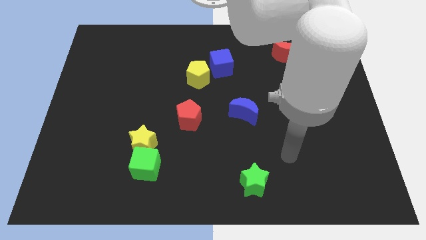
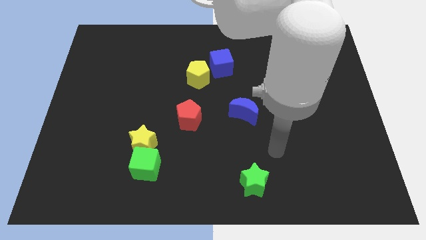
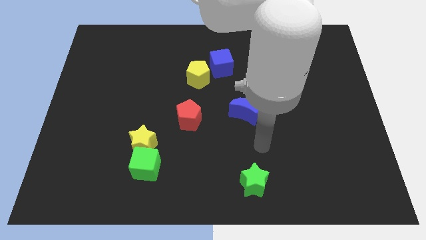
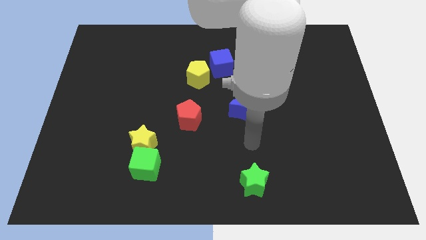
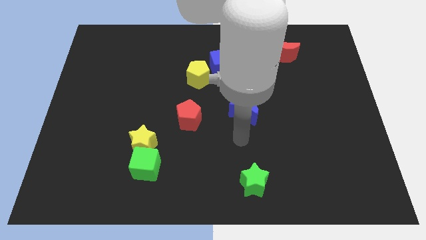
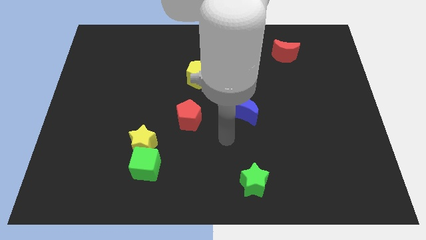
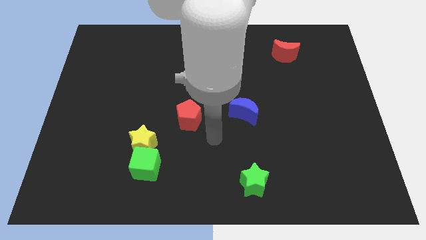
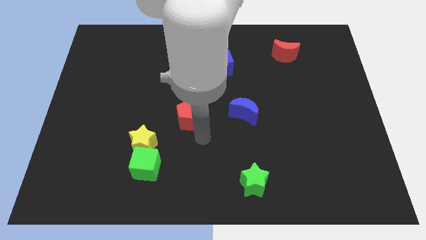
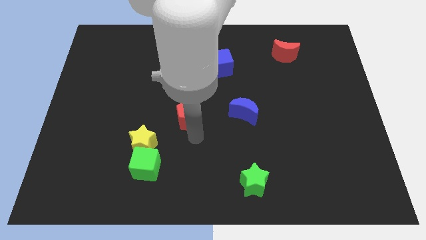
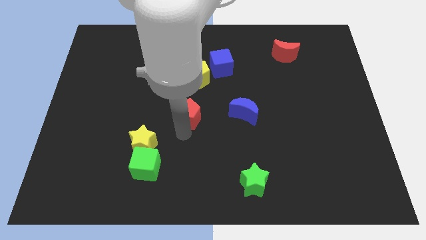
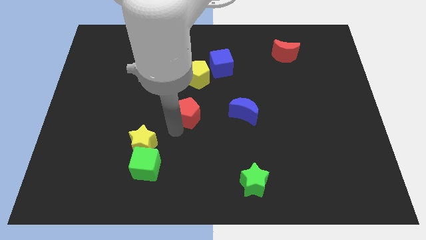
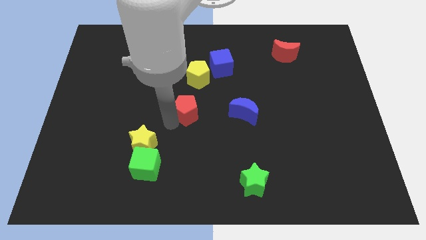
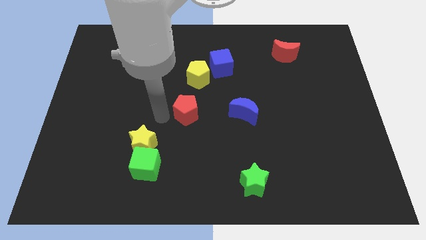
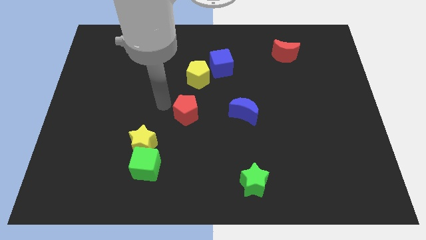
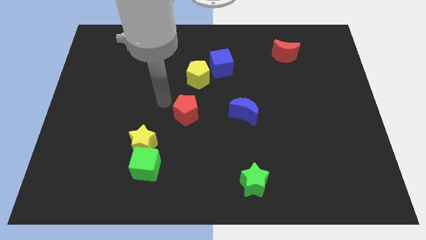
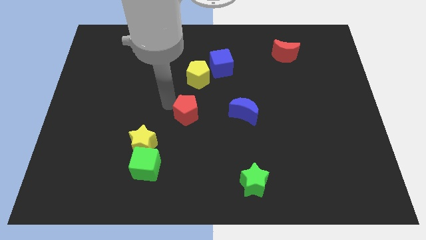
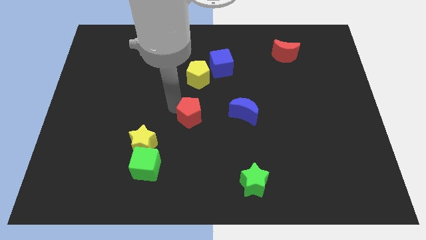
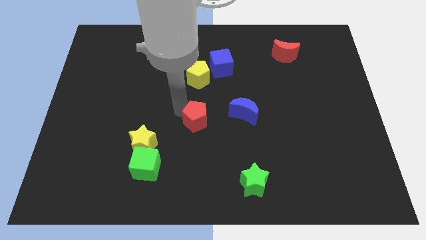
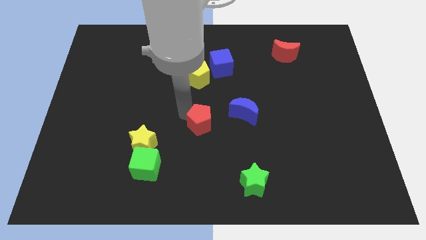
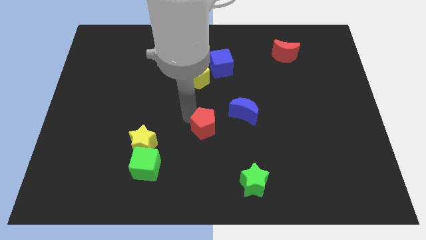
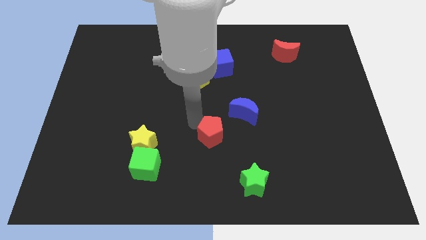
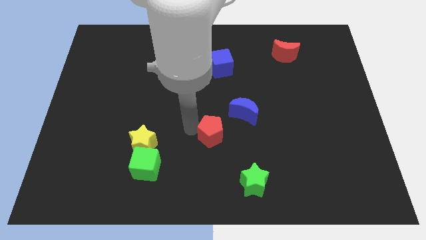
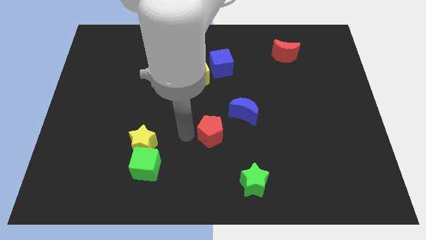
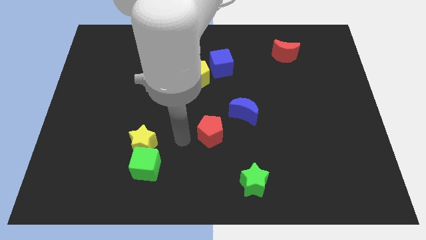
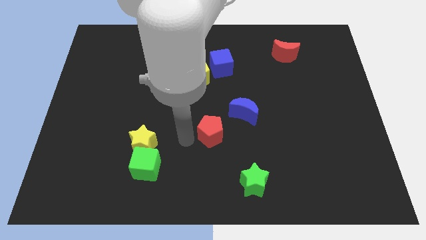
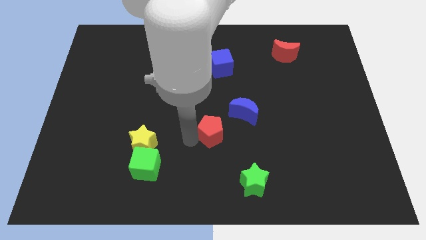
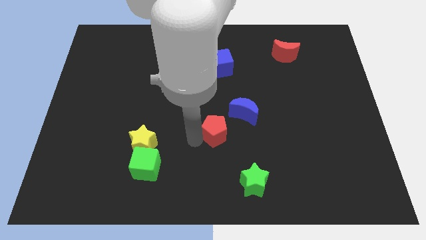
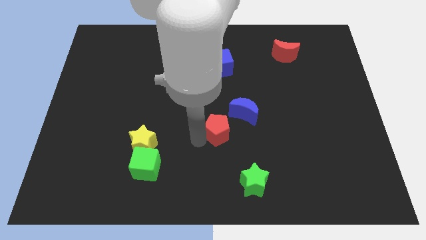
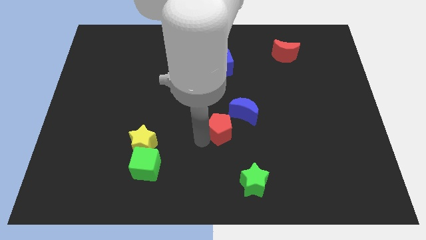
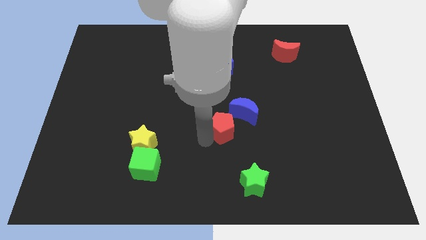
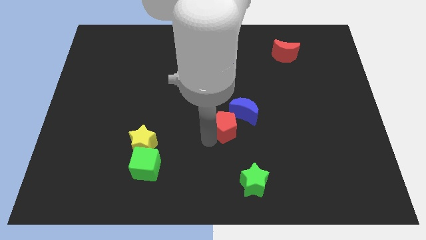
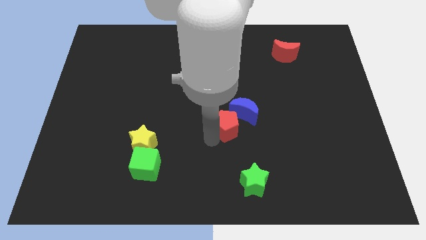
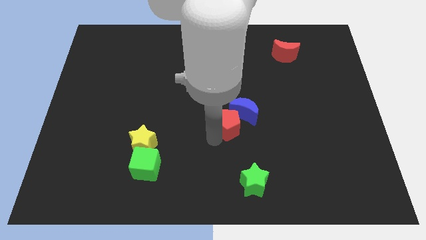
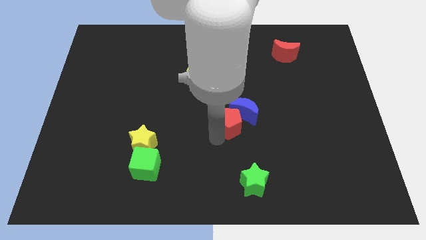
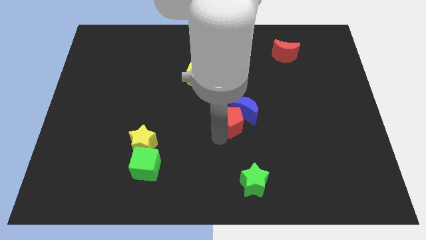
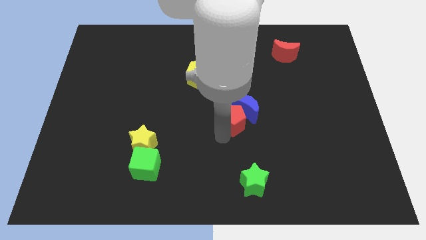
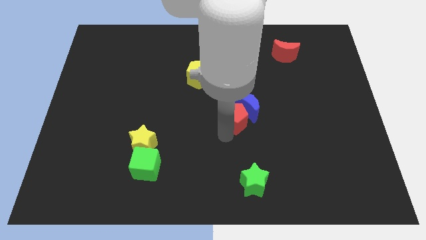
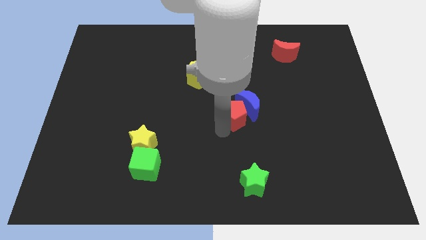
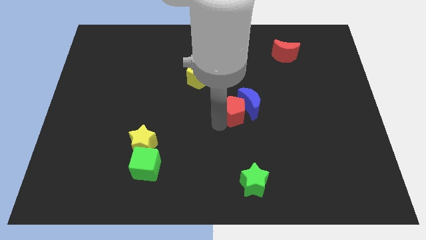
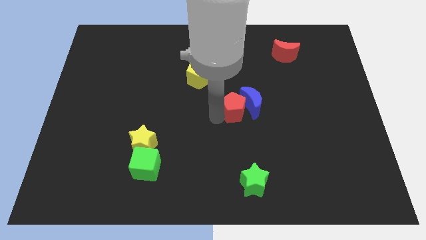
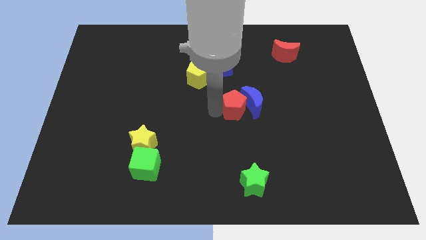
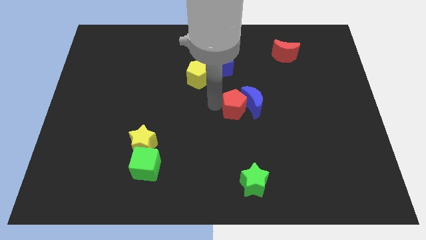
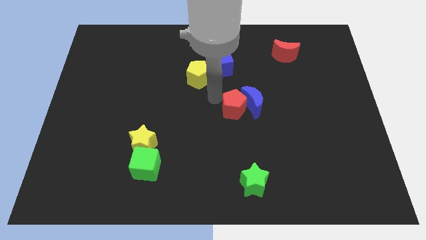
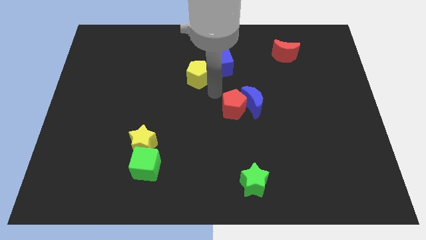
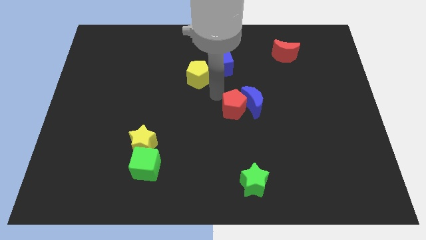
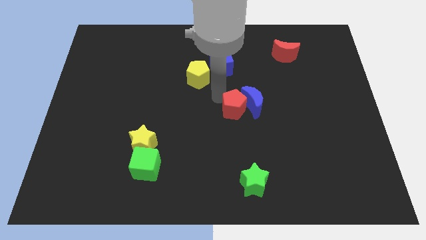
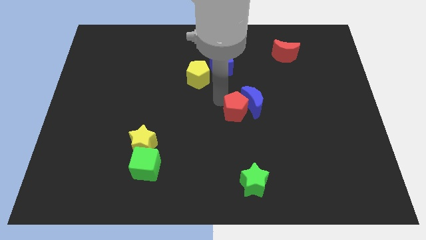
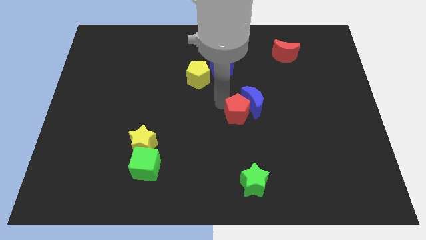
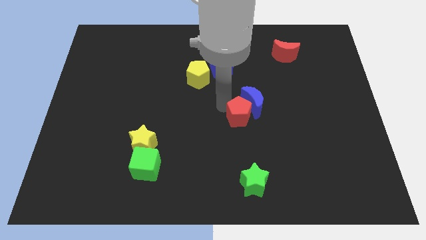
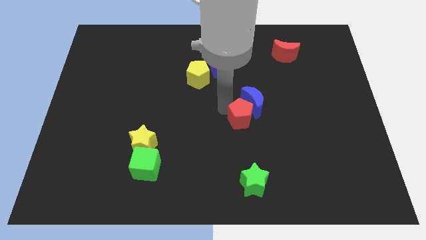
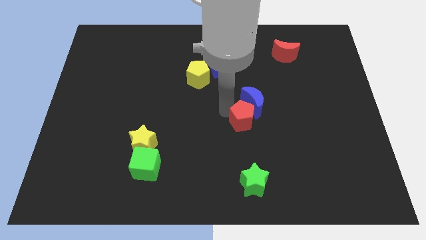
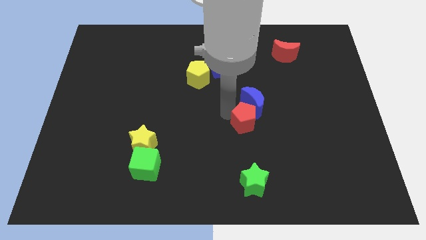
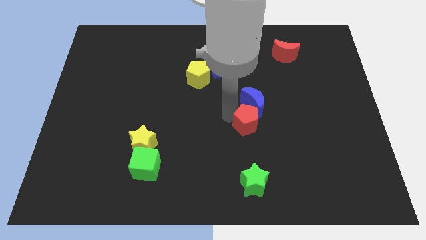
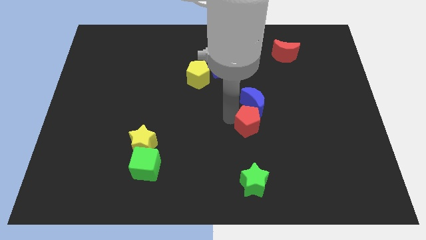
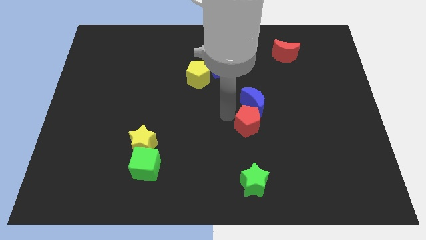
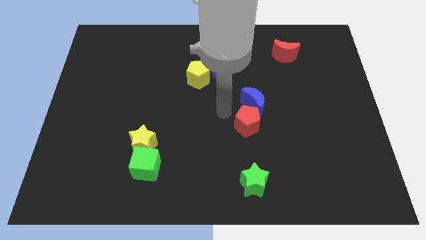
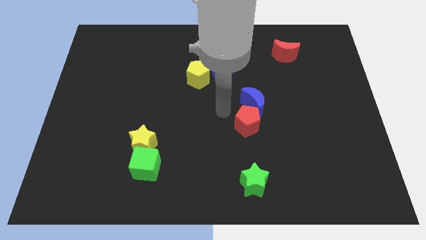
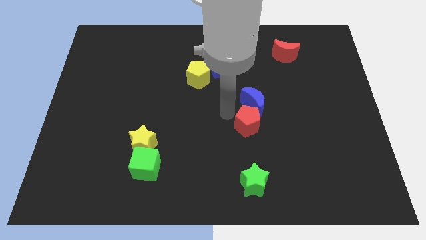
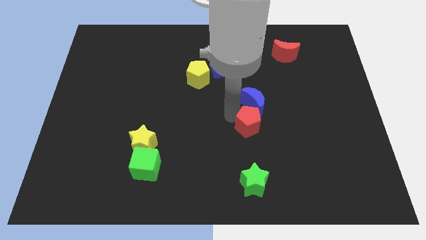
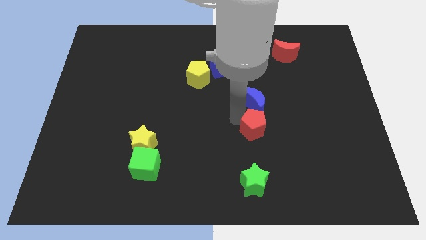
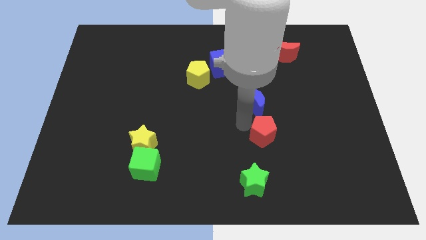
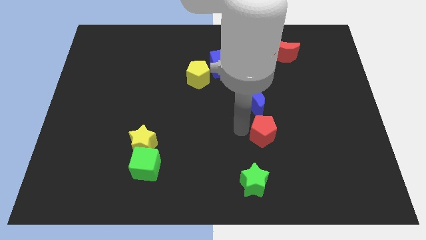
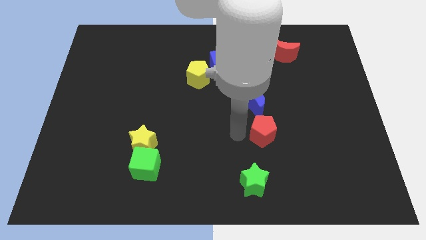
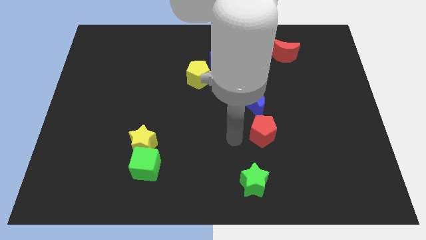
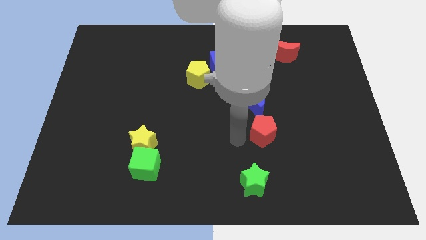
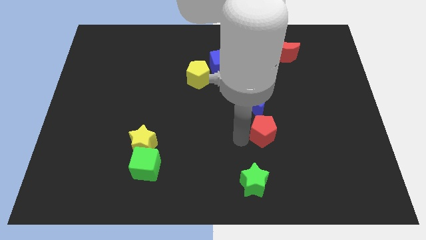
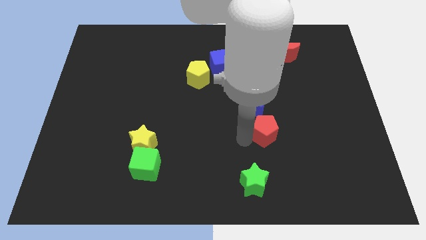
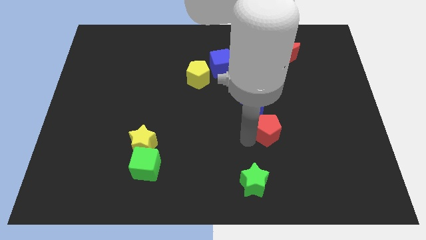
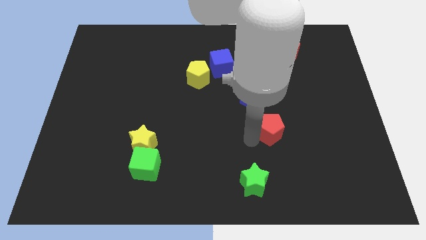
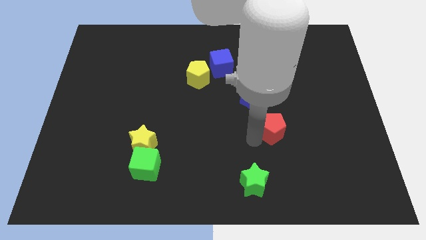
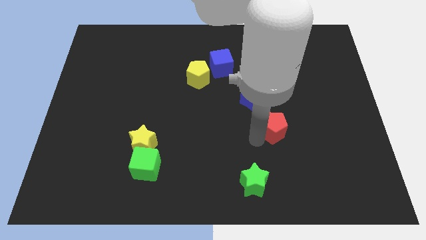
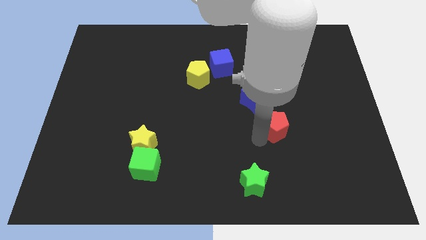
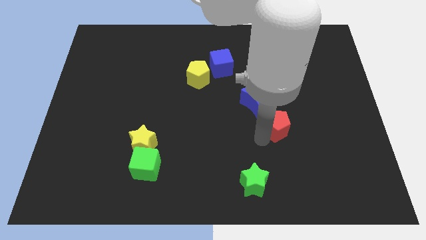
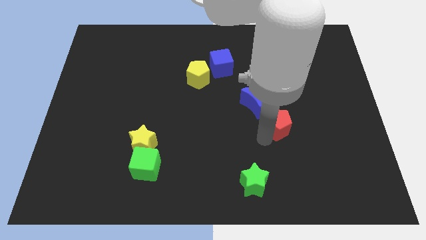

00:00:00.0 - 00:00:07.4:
push the red pentagon to the right

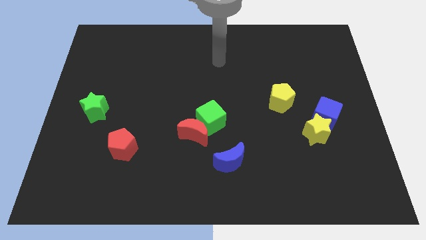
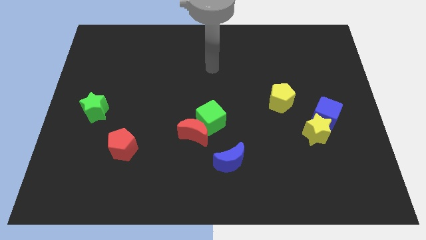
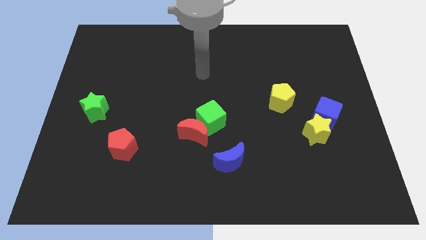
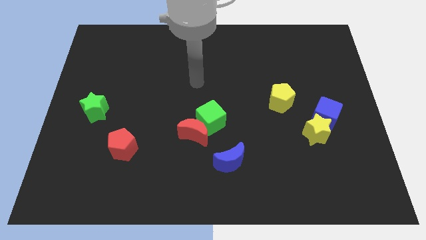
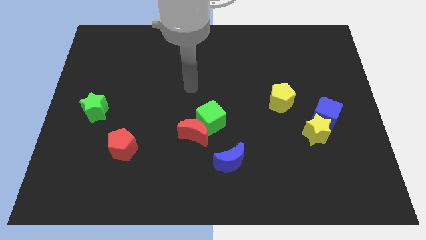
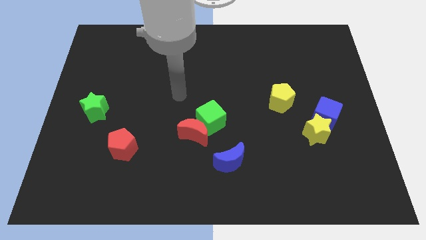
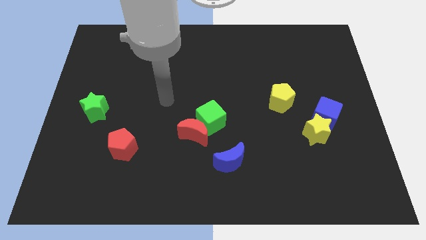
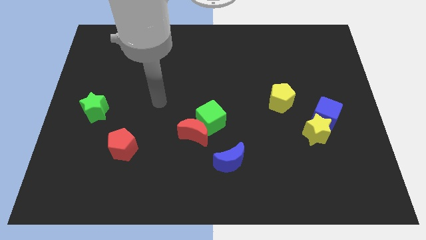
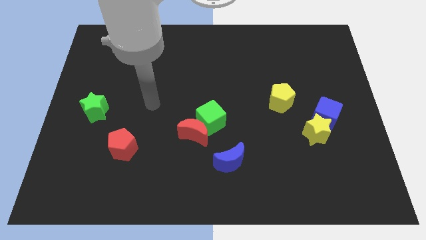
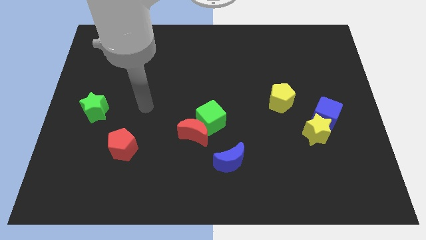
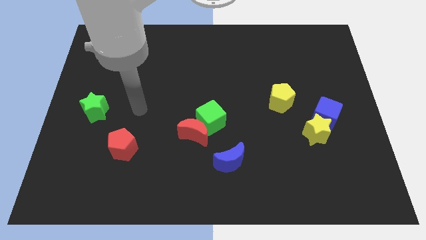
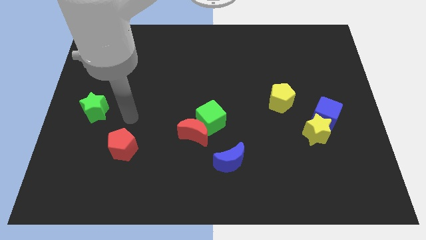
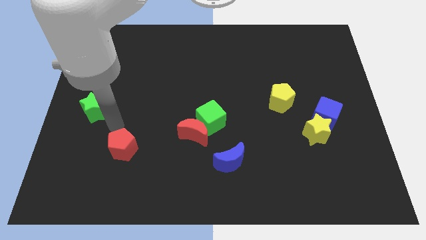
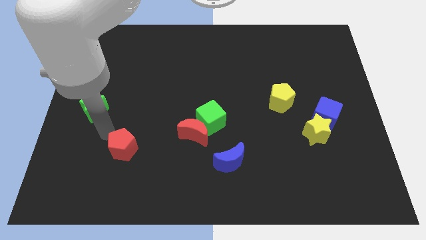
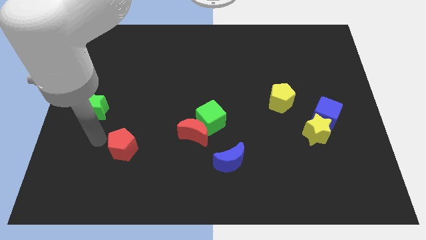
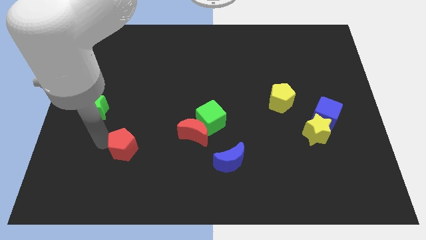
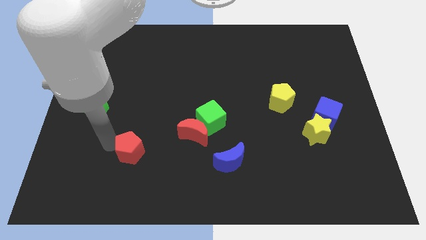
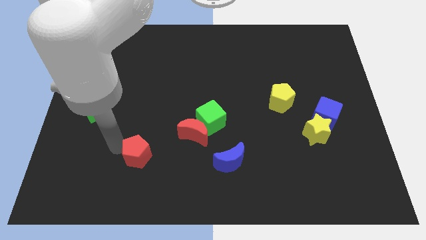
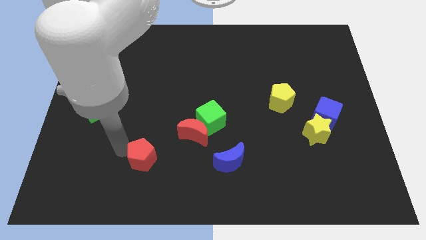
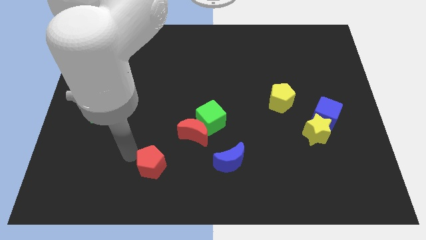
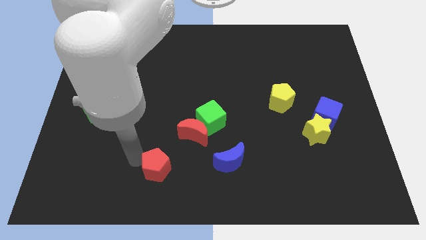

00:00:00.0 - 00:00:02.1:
slightly move the red pentagon to the right
